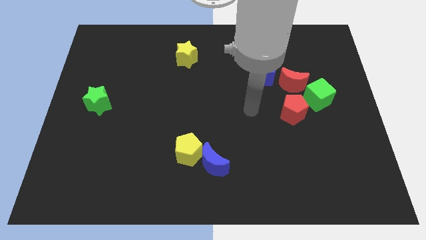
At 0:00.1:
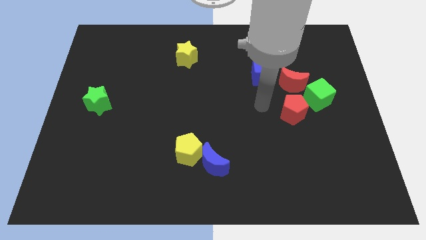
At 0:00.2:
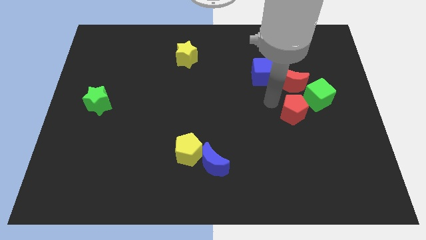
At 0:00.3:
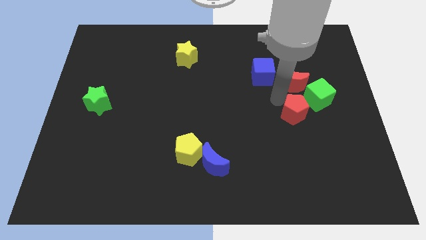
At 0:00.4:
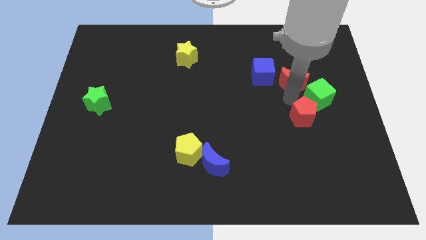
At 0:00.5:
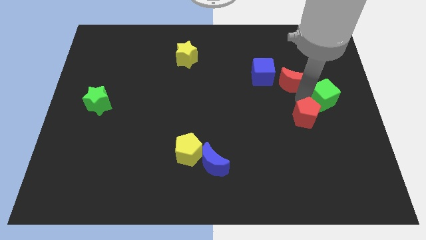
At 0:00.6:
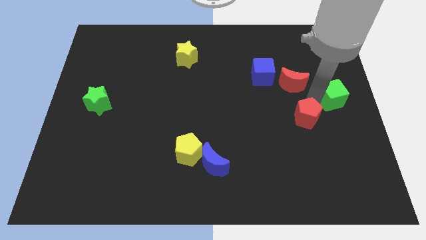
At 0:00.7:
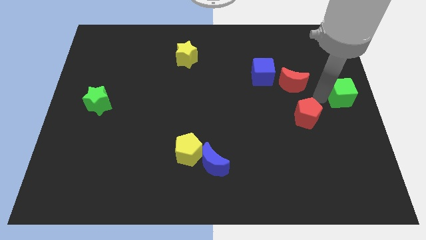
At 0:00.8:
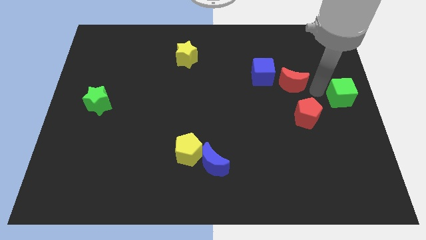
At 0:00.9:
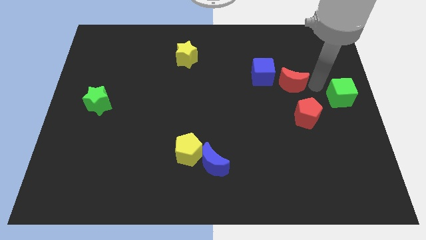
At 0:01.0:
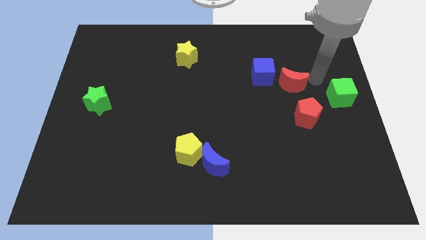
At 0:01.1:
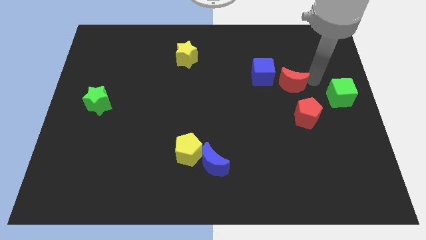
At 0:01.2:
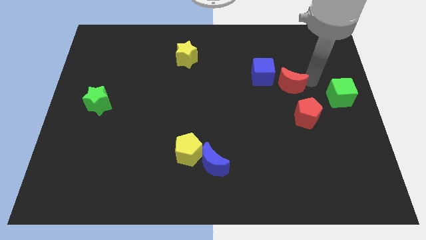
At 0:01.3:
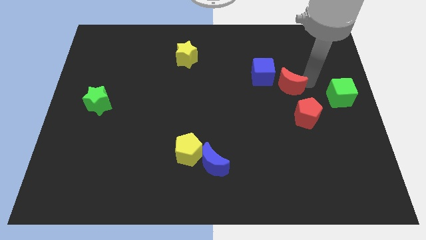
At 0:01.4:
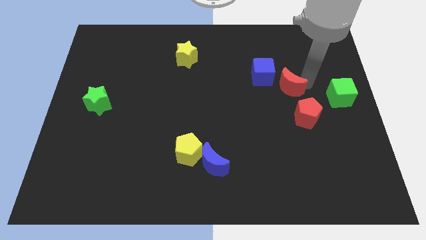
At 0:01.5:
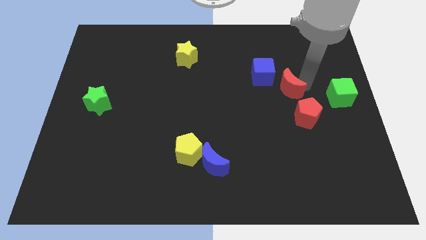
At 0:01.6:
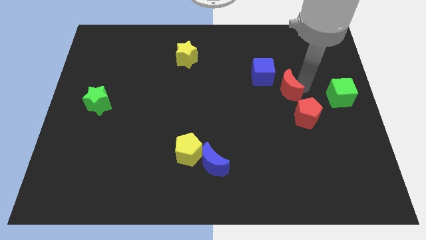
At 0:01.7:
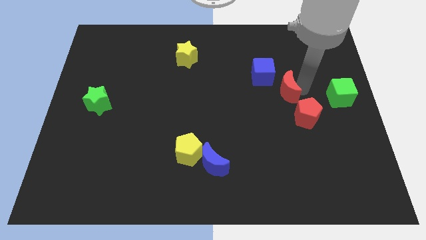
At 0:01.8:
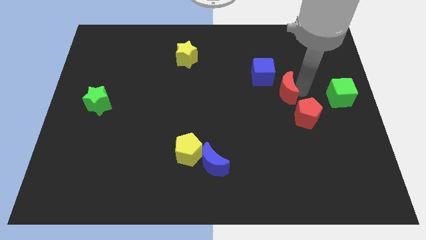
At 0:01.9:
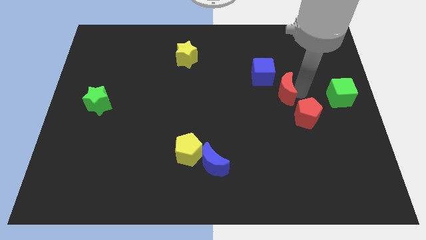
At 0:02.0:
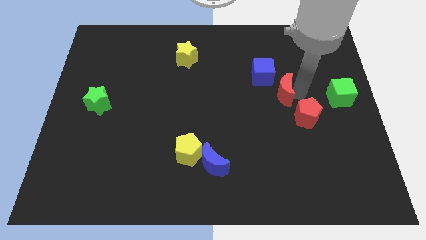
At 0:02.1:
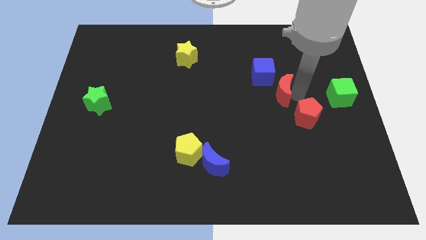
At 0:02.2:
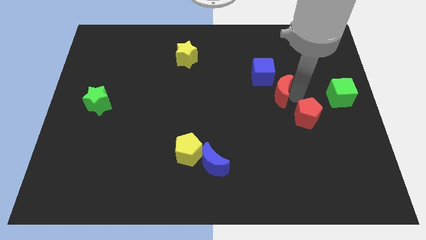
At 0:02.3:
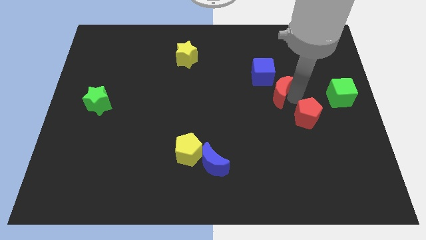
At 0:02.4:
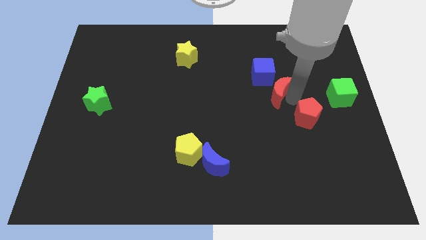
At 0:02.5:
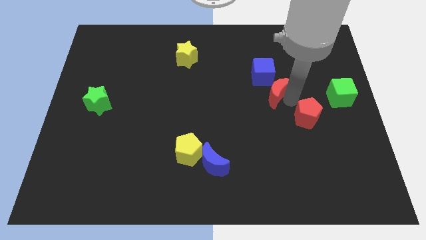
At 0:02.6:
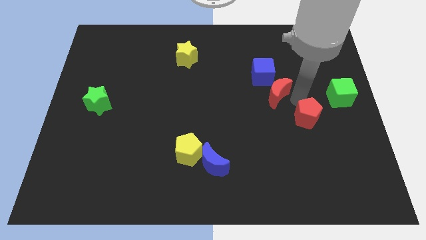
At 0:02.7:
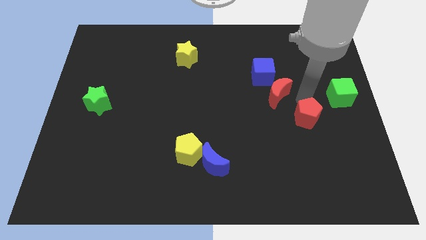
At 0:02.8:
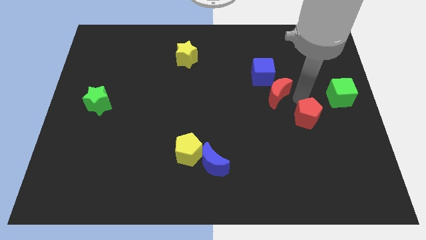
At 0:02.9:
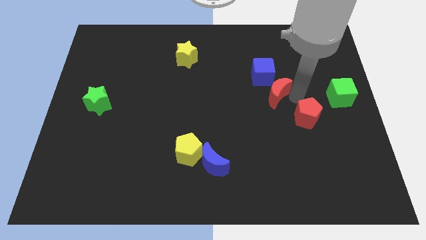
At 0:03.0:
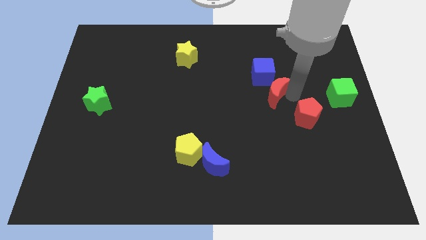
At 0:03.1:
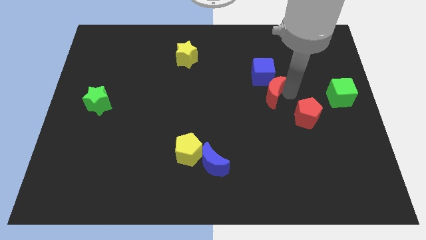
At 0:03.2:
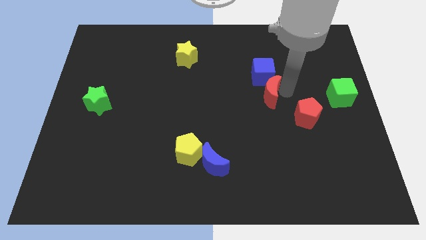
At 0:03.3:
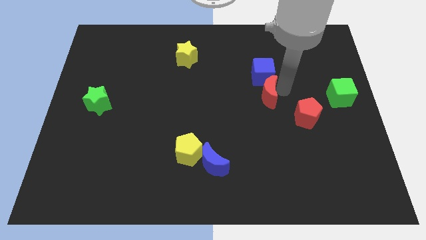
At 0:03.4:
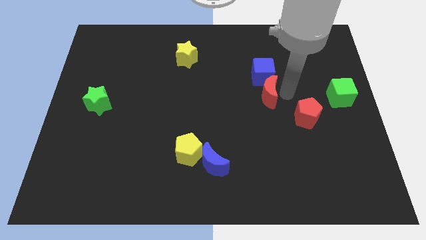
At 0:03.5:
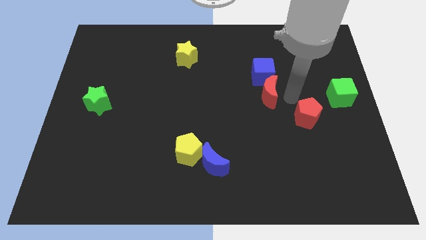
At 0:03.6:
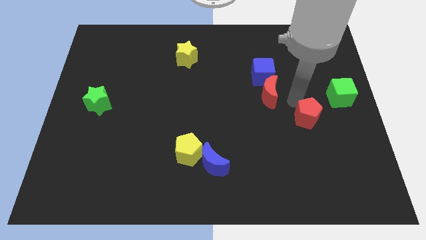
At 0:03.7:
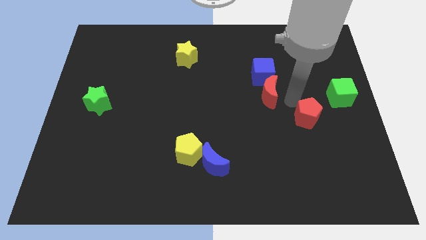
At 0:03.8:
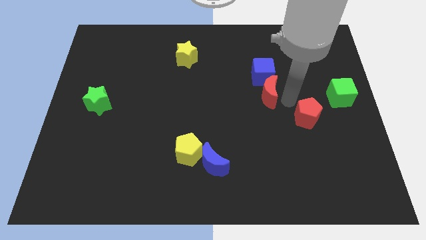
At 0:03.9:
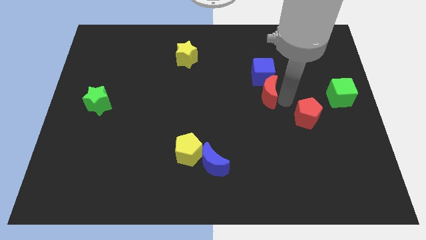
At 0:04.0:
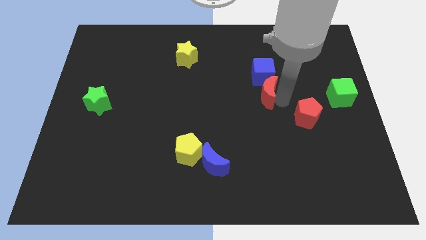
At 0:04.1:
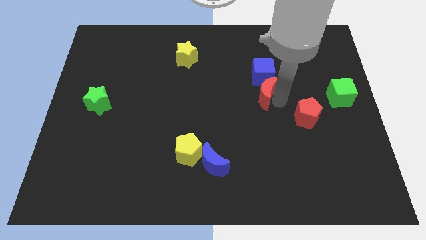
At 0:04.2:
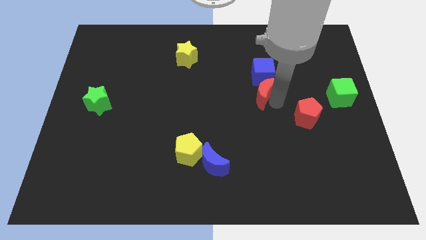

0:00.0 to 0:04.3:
slide the red moon slightly left

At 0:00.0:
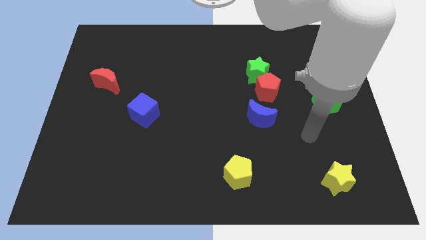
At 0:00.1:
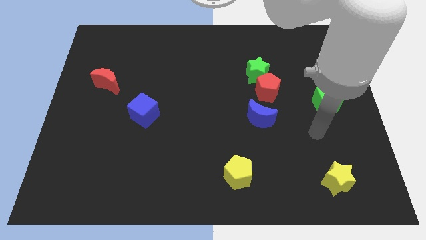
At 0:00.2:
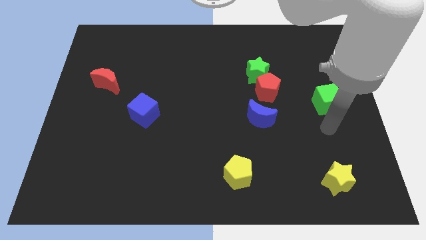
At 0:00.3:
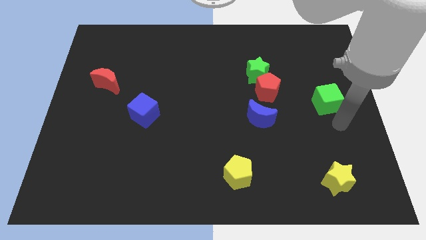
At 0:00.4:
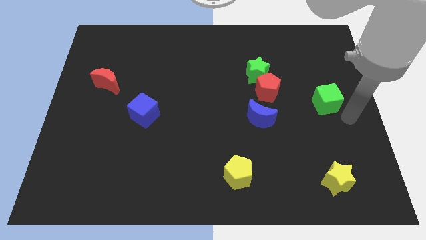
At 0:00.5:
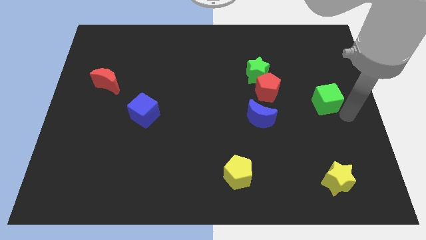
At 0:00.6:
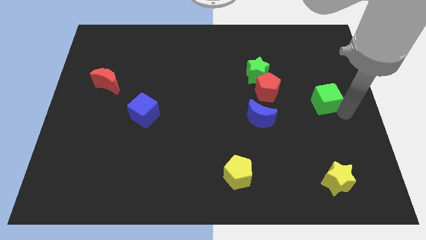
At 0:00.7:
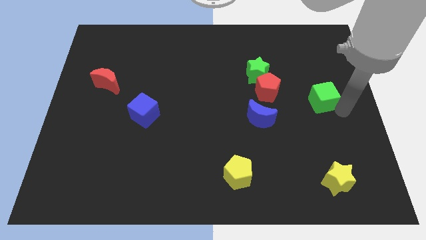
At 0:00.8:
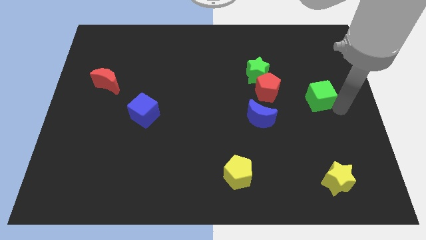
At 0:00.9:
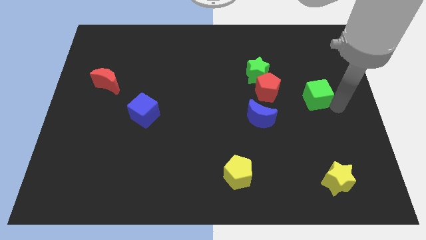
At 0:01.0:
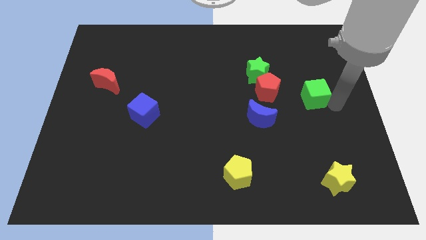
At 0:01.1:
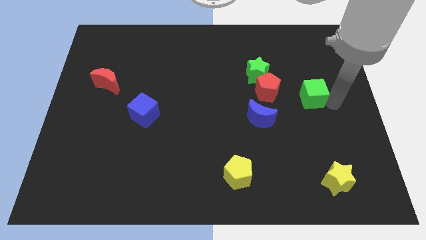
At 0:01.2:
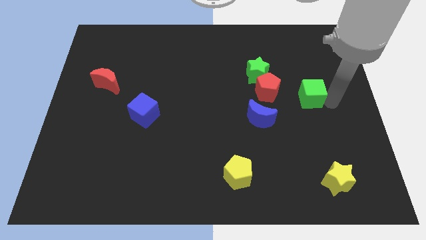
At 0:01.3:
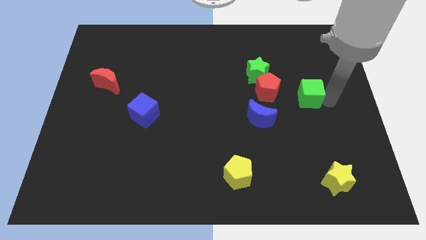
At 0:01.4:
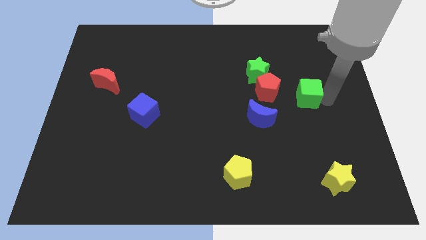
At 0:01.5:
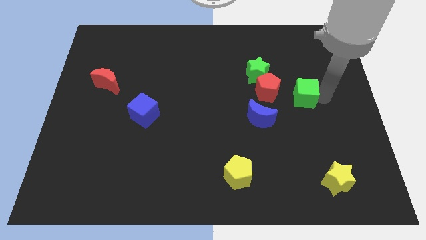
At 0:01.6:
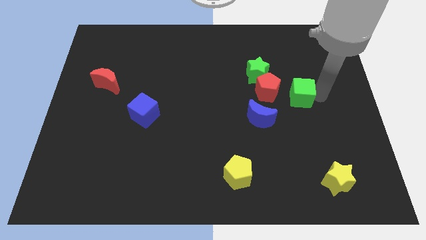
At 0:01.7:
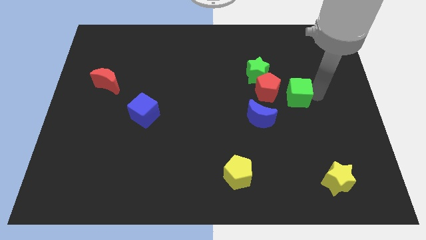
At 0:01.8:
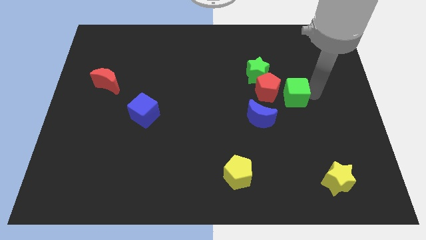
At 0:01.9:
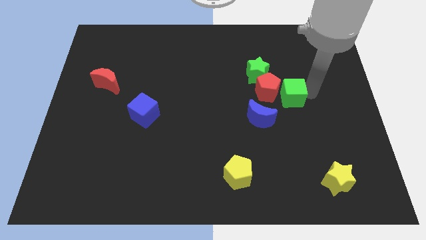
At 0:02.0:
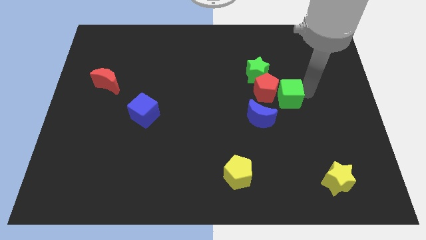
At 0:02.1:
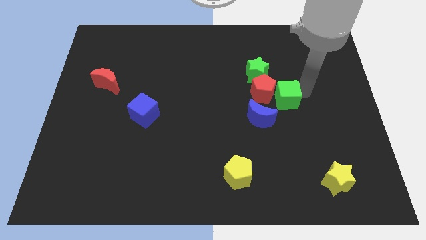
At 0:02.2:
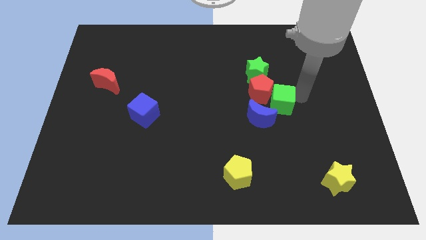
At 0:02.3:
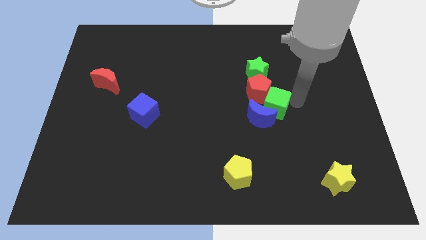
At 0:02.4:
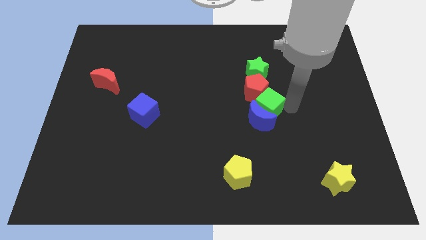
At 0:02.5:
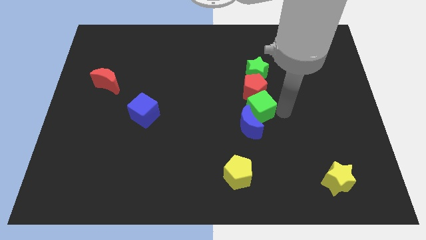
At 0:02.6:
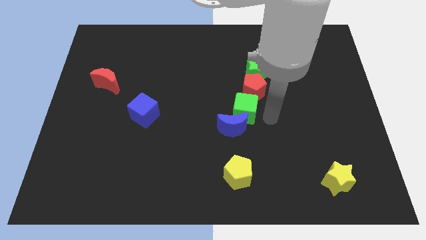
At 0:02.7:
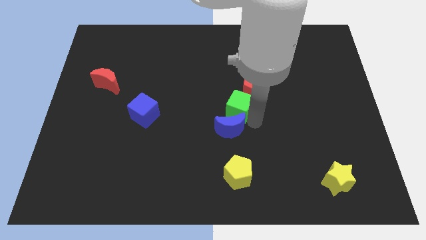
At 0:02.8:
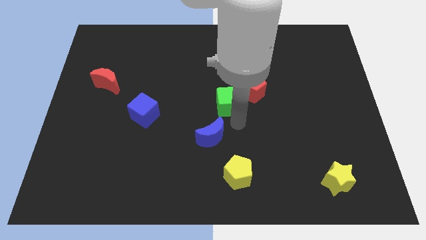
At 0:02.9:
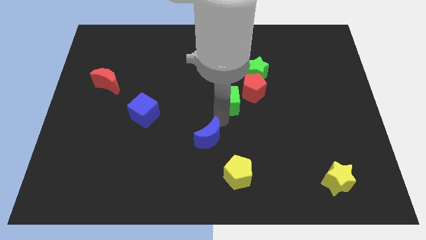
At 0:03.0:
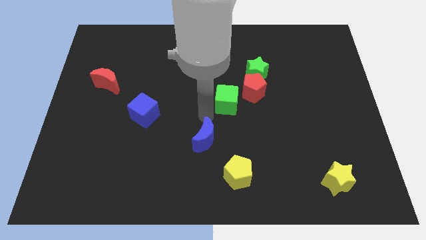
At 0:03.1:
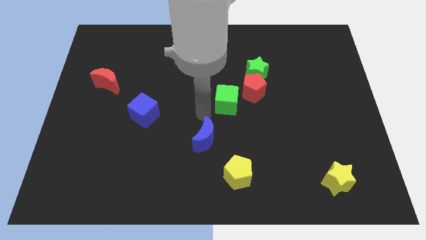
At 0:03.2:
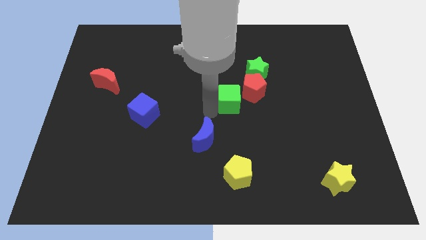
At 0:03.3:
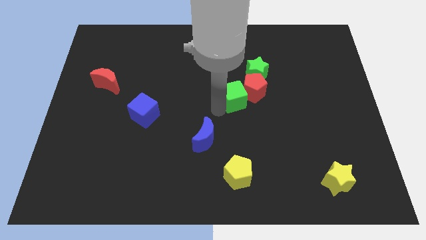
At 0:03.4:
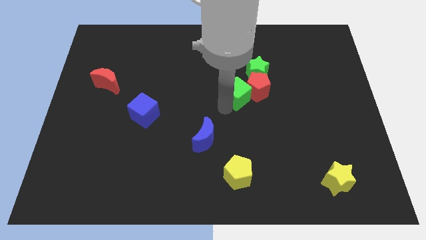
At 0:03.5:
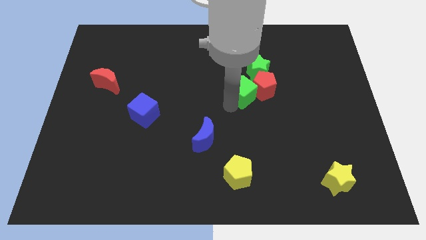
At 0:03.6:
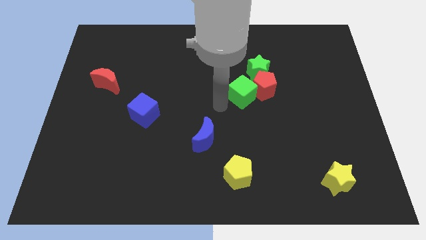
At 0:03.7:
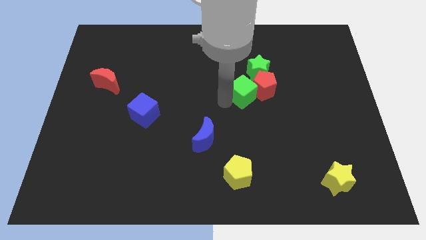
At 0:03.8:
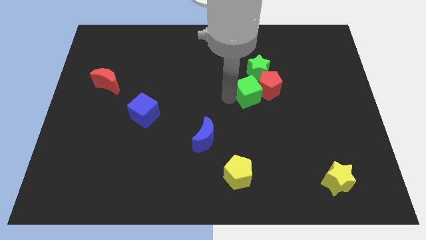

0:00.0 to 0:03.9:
push the green cube diagonally upwards and left somewhat
